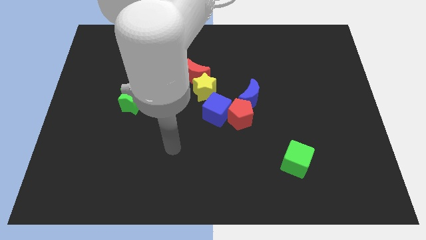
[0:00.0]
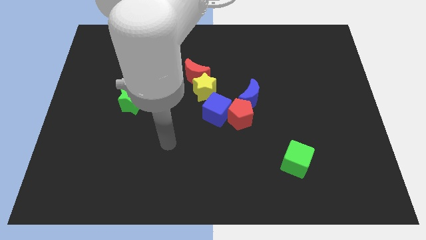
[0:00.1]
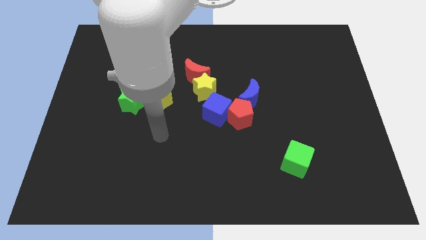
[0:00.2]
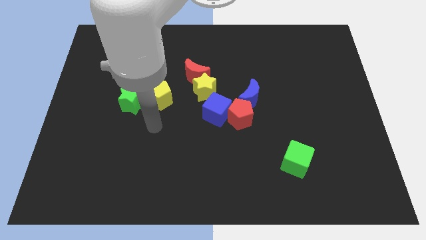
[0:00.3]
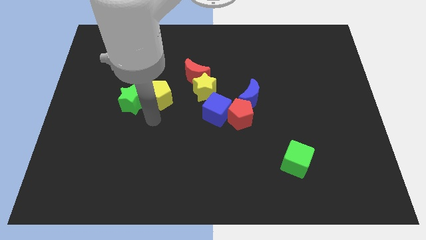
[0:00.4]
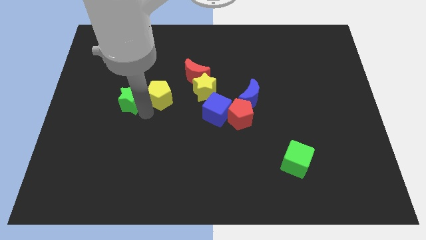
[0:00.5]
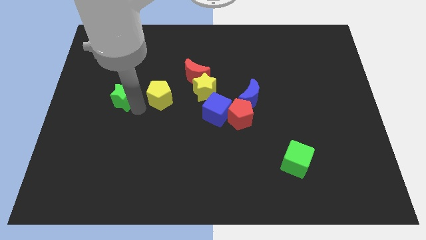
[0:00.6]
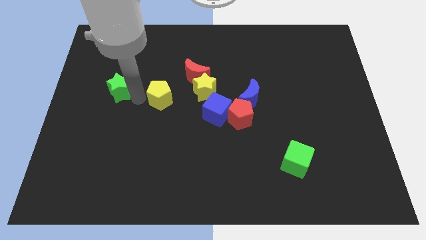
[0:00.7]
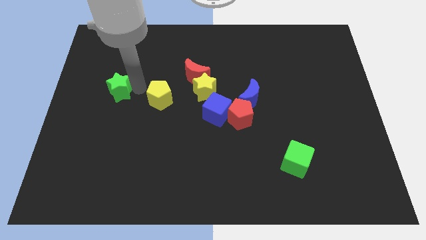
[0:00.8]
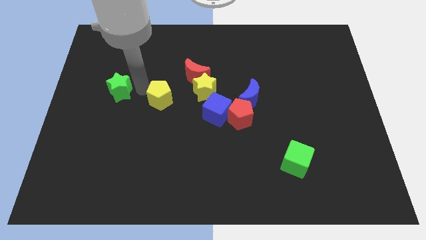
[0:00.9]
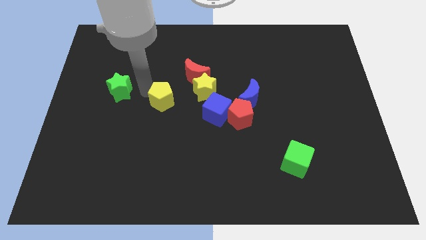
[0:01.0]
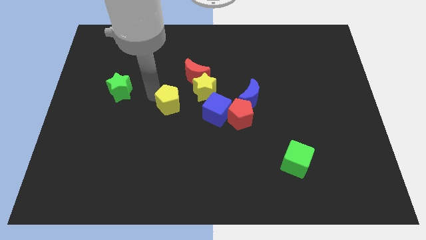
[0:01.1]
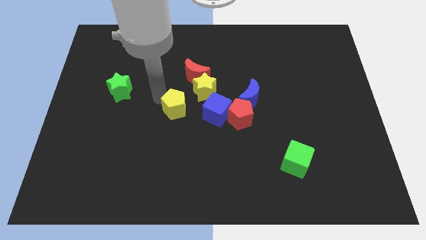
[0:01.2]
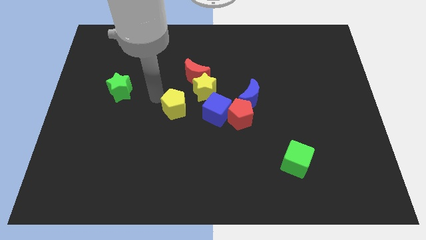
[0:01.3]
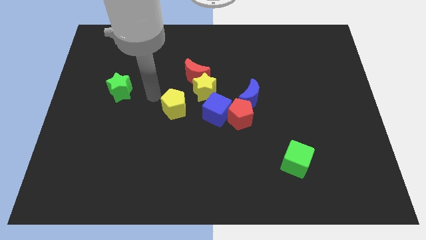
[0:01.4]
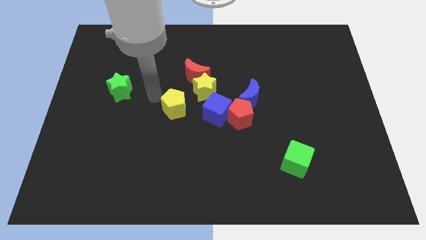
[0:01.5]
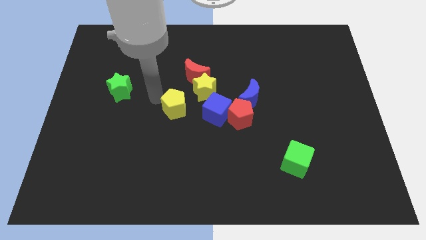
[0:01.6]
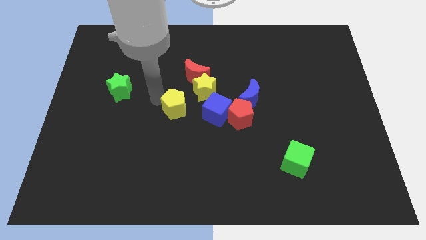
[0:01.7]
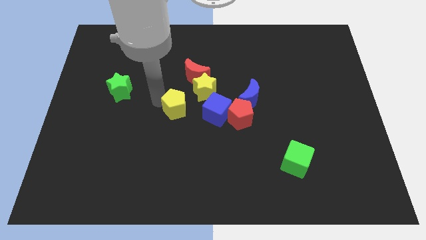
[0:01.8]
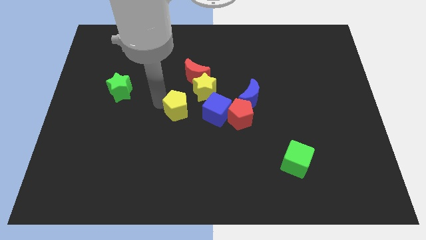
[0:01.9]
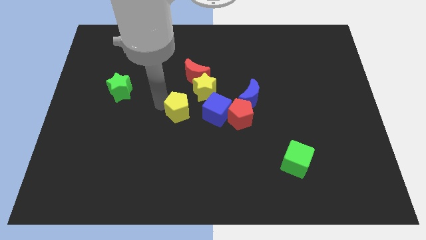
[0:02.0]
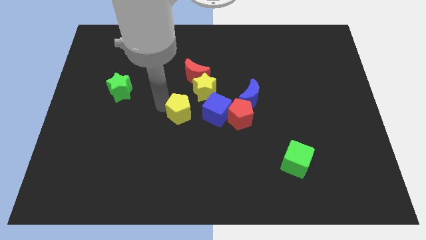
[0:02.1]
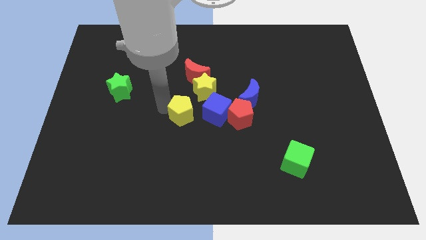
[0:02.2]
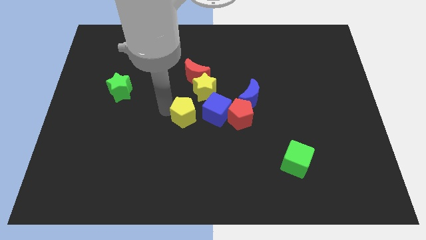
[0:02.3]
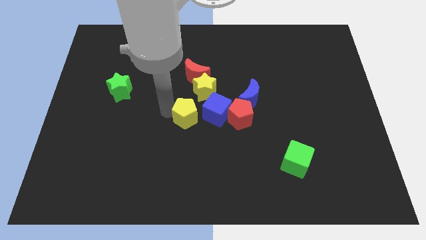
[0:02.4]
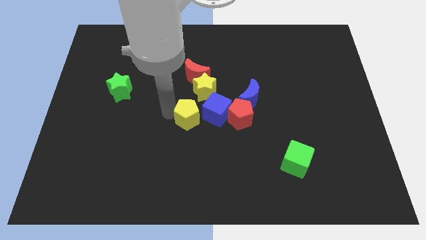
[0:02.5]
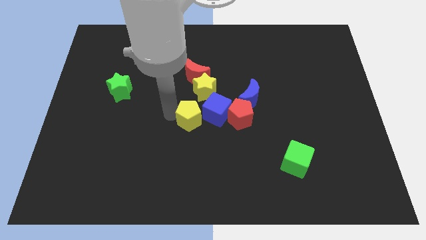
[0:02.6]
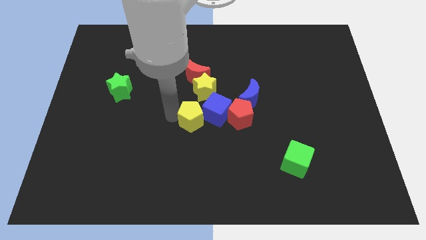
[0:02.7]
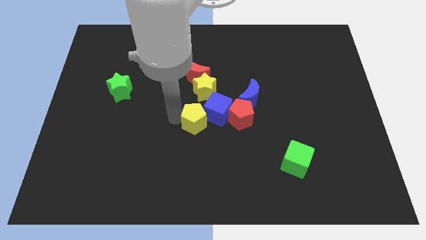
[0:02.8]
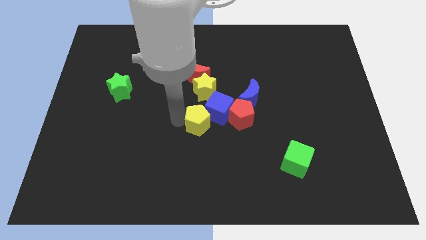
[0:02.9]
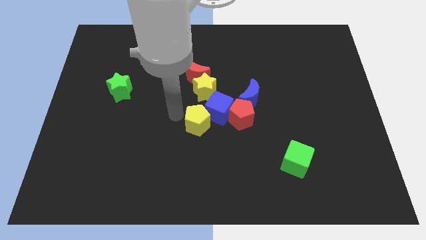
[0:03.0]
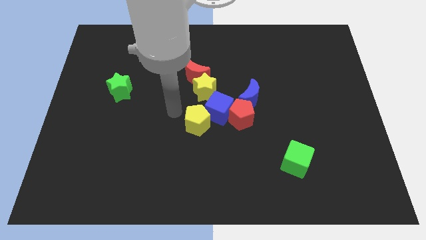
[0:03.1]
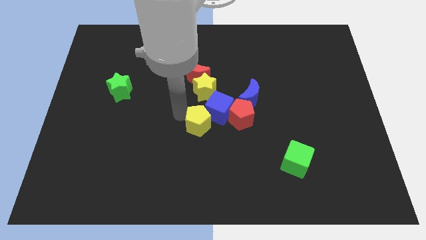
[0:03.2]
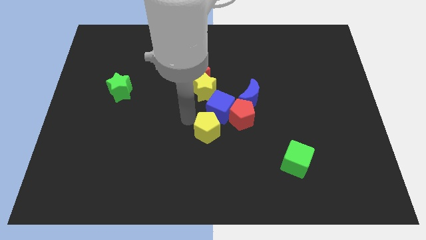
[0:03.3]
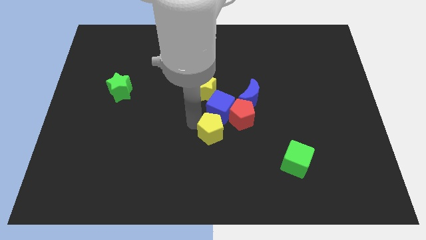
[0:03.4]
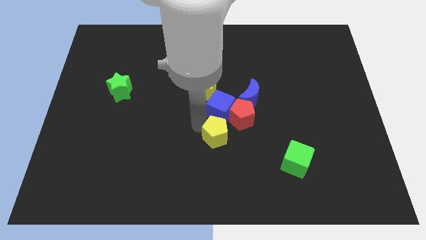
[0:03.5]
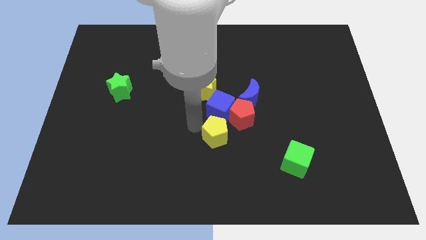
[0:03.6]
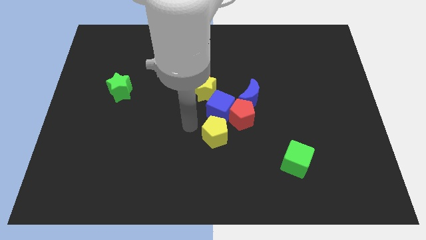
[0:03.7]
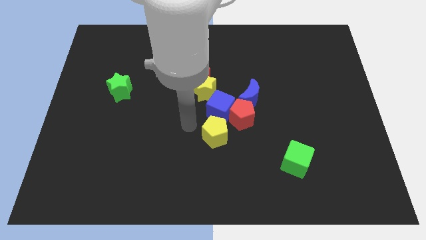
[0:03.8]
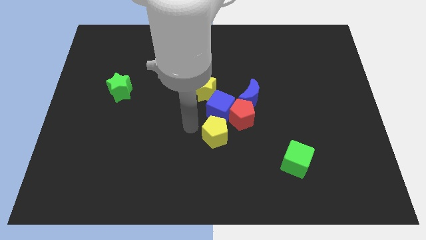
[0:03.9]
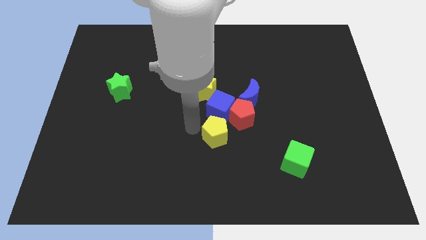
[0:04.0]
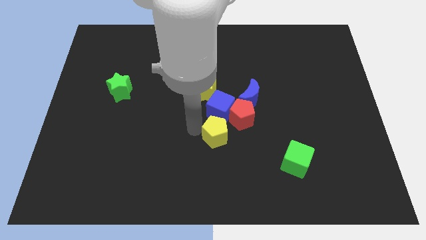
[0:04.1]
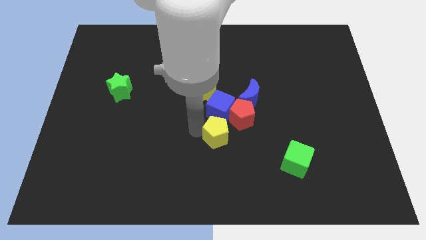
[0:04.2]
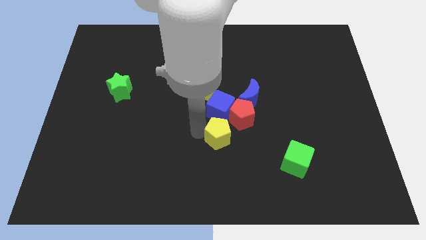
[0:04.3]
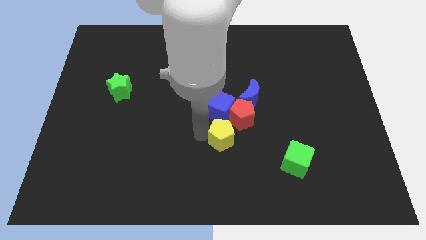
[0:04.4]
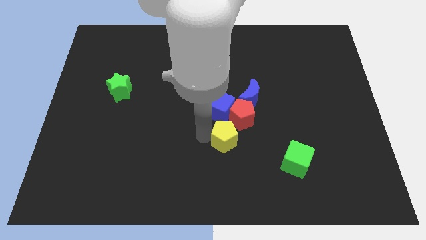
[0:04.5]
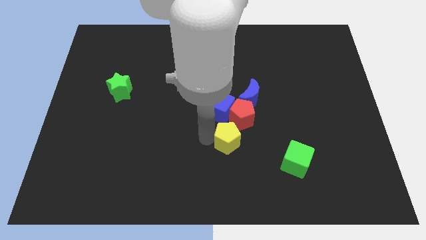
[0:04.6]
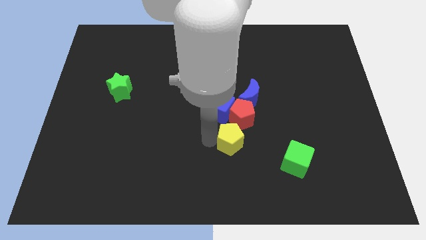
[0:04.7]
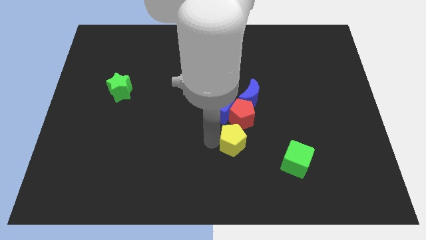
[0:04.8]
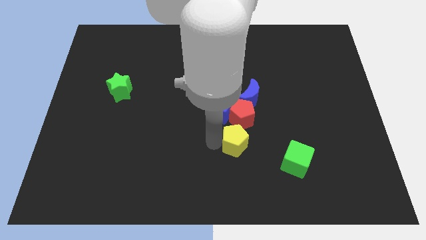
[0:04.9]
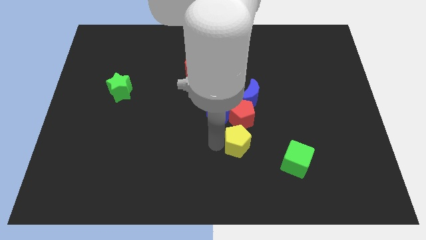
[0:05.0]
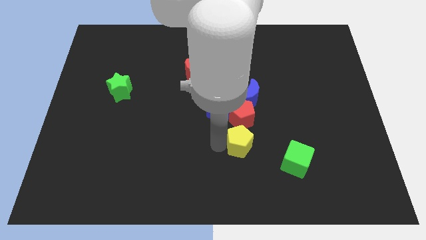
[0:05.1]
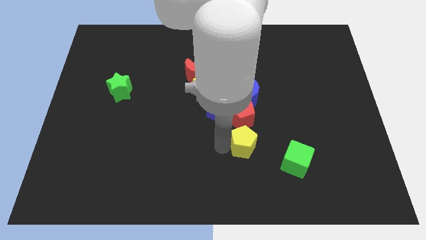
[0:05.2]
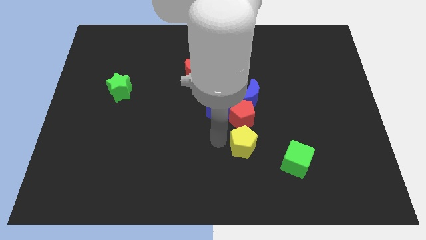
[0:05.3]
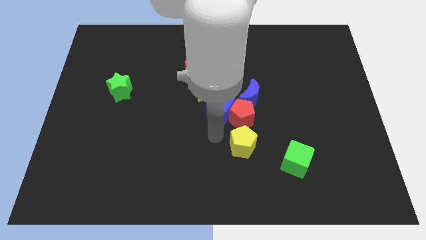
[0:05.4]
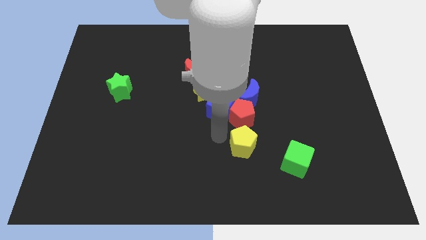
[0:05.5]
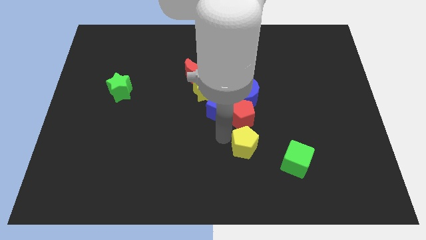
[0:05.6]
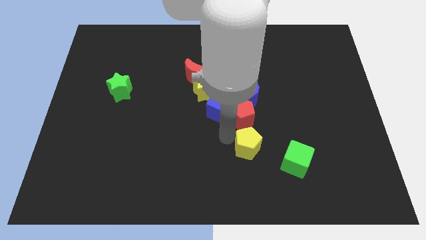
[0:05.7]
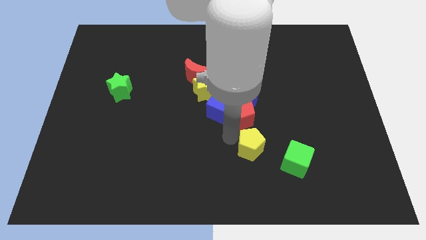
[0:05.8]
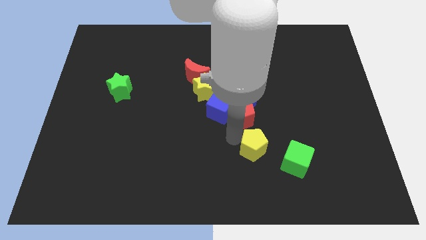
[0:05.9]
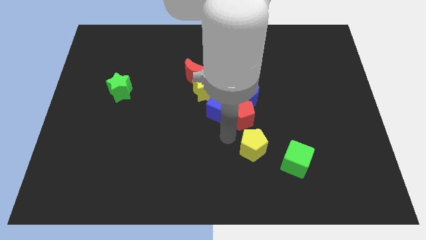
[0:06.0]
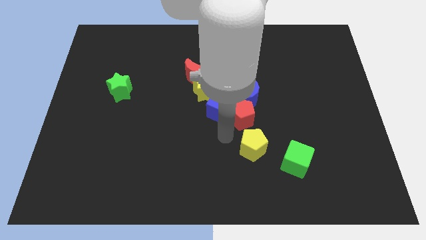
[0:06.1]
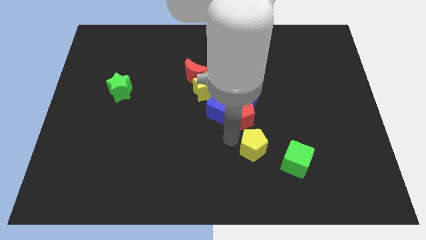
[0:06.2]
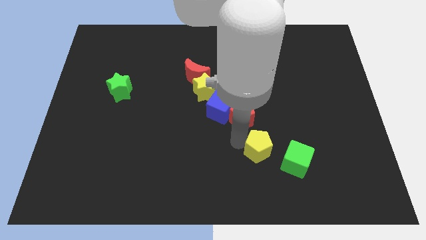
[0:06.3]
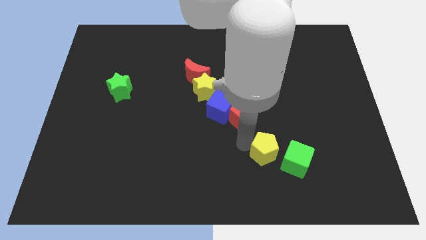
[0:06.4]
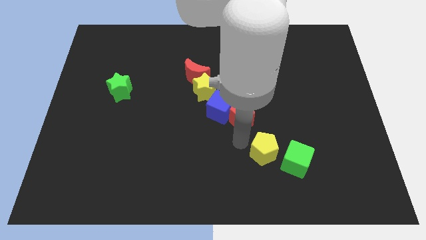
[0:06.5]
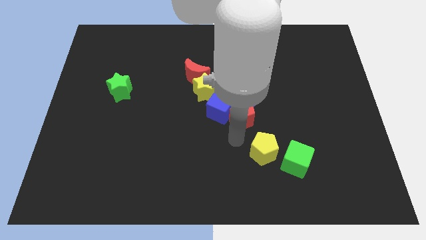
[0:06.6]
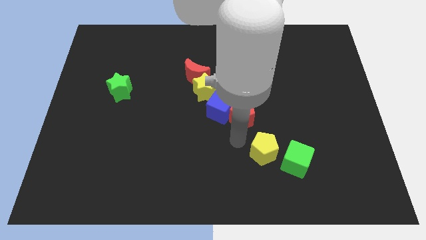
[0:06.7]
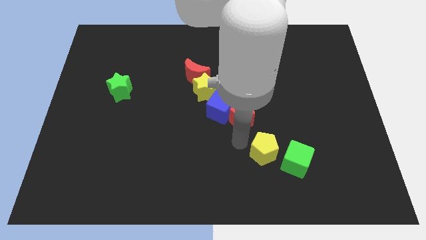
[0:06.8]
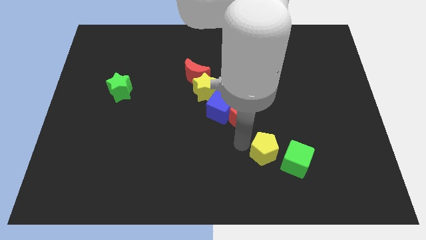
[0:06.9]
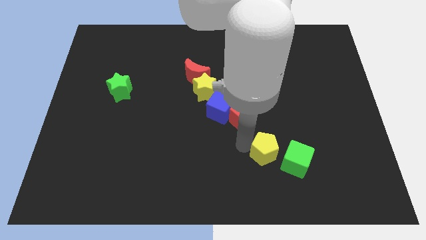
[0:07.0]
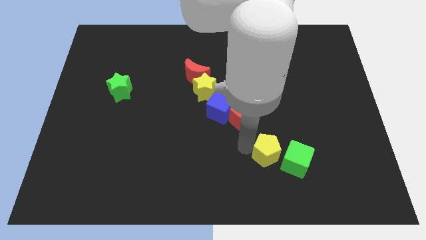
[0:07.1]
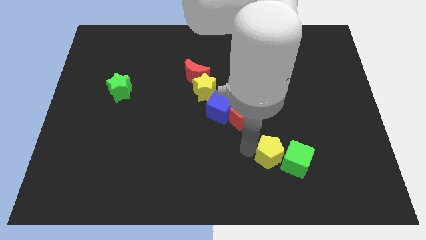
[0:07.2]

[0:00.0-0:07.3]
move the yellow pentagon to the green cube
